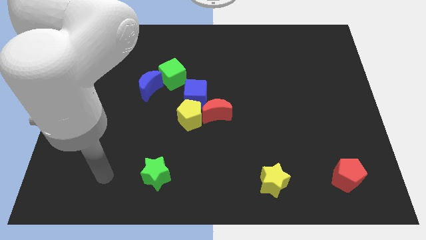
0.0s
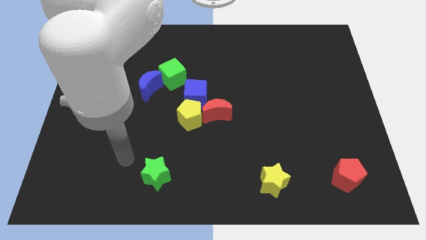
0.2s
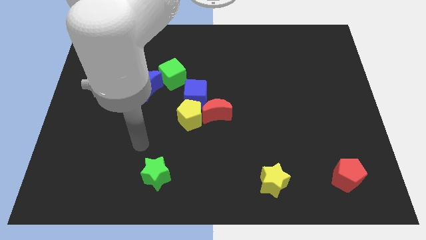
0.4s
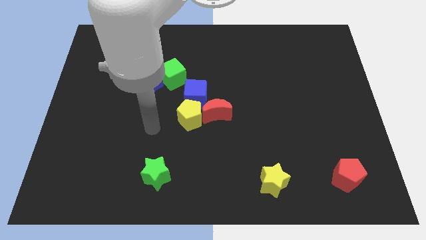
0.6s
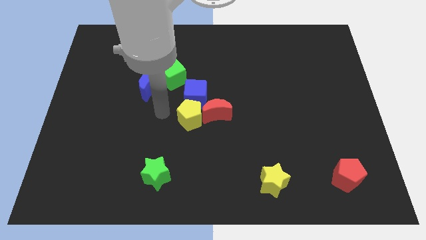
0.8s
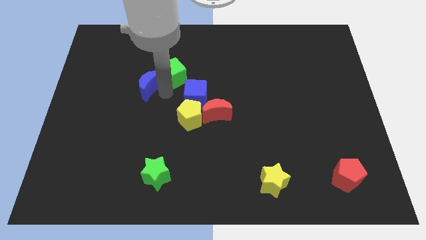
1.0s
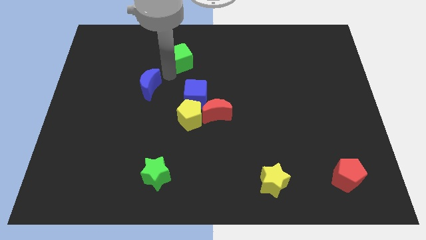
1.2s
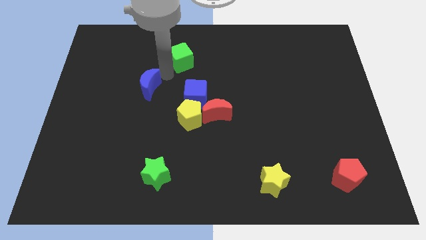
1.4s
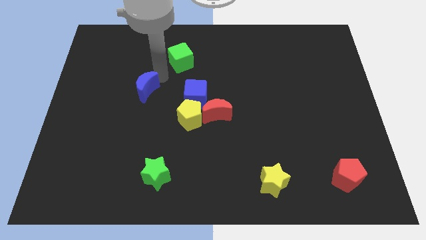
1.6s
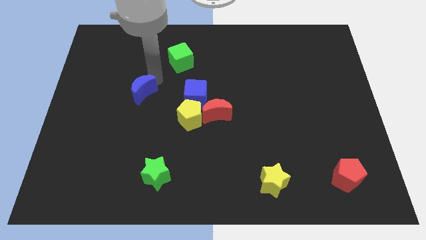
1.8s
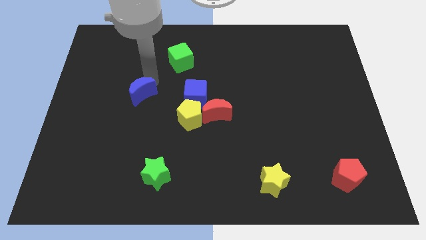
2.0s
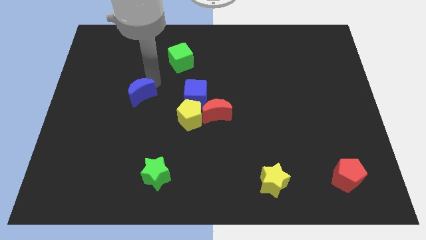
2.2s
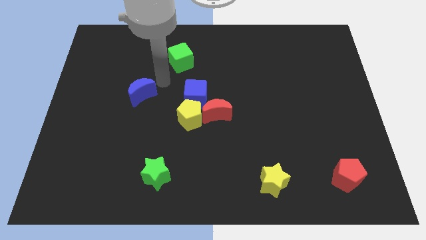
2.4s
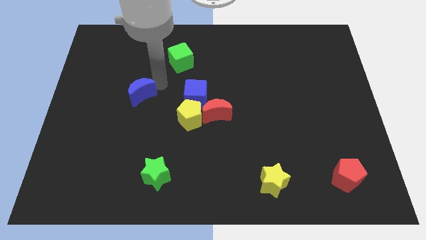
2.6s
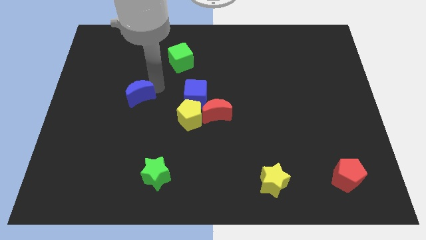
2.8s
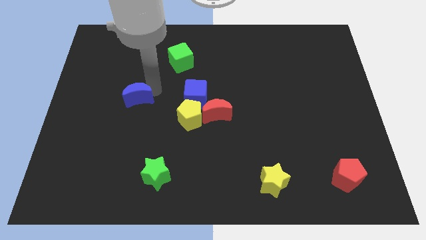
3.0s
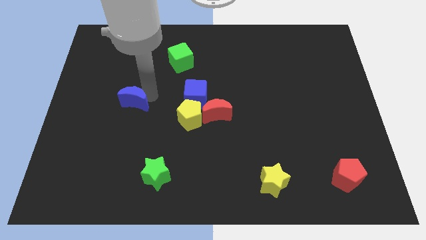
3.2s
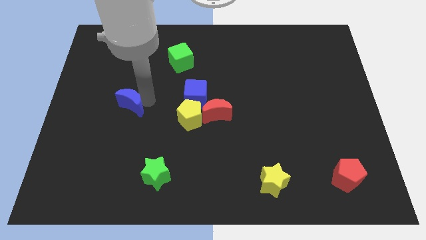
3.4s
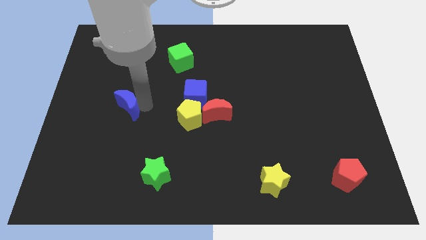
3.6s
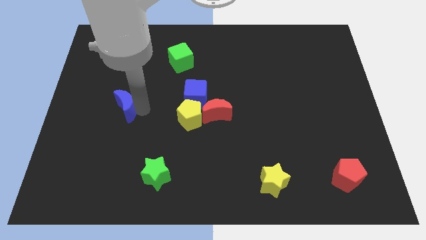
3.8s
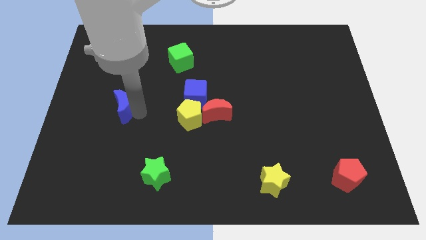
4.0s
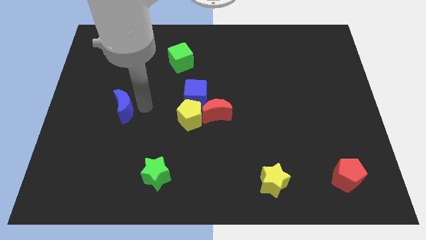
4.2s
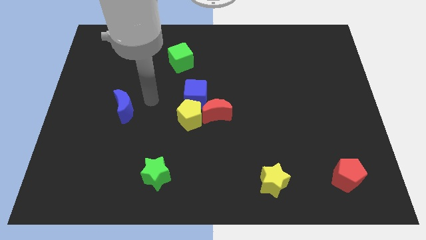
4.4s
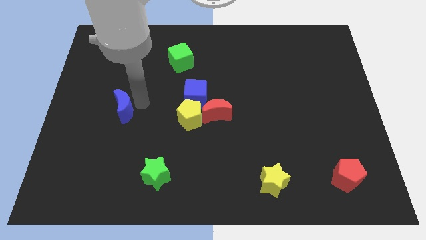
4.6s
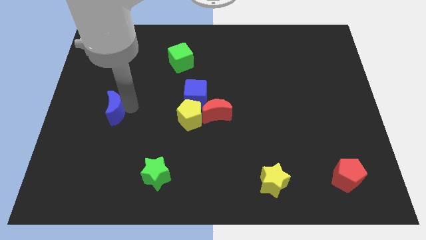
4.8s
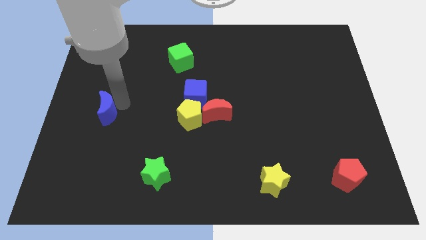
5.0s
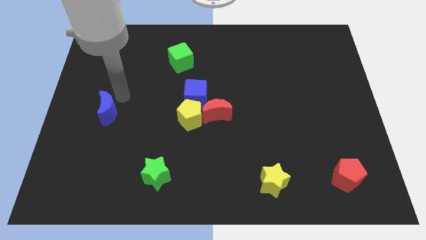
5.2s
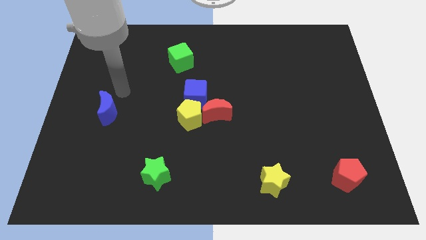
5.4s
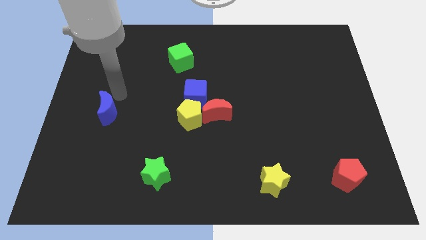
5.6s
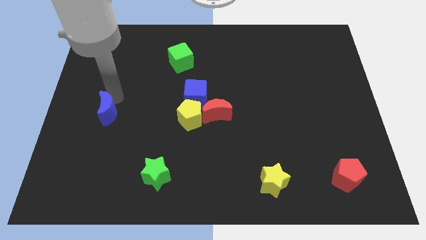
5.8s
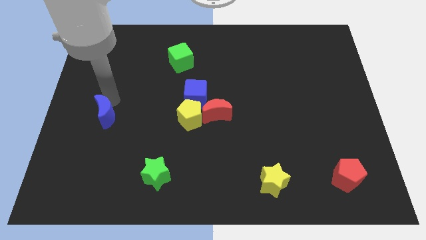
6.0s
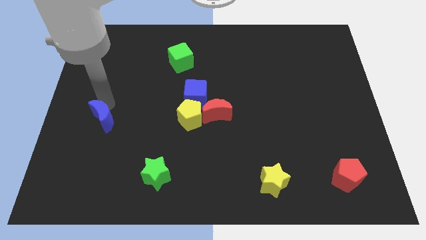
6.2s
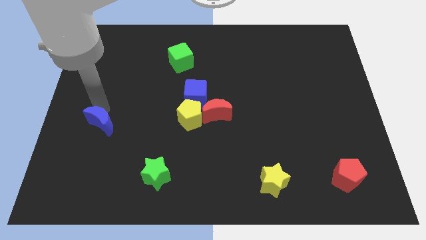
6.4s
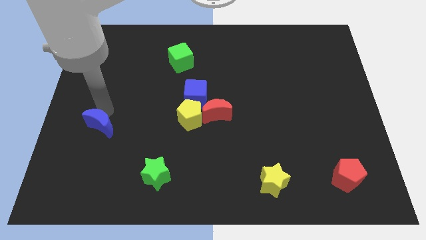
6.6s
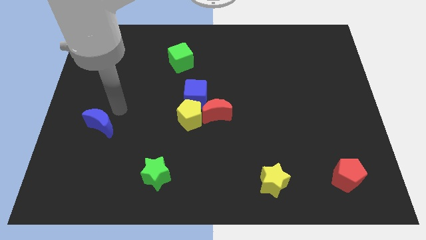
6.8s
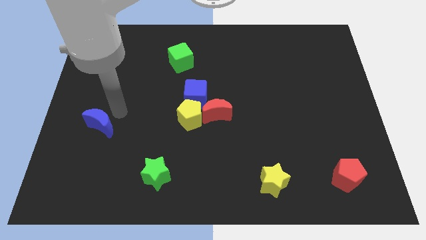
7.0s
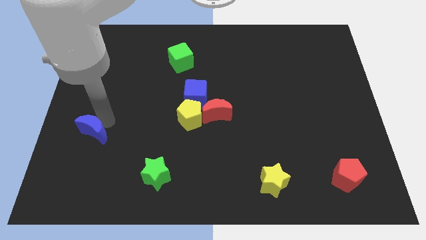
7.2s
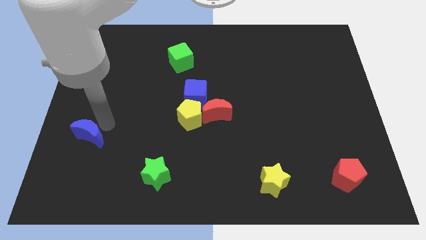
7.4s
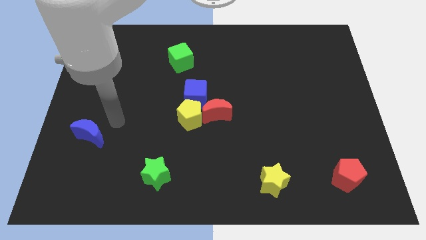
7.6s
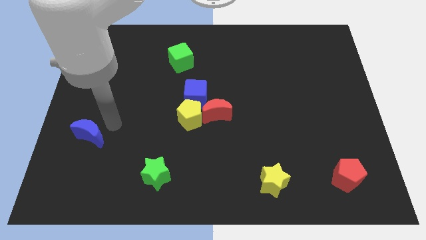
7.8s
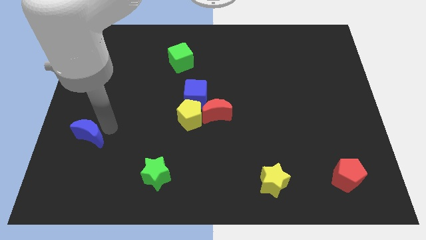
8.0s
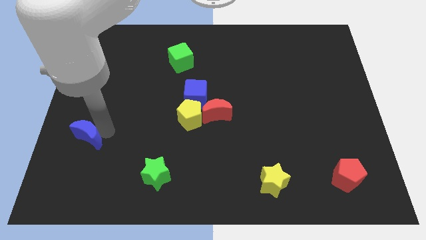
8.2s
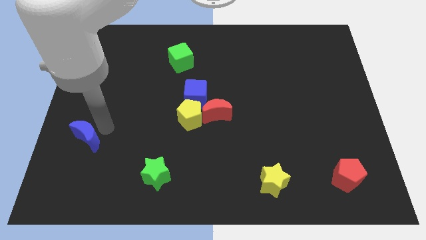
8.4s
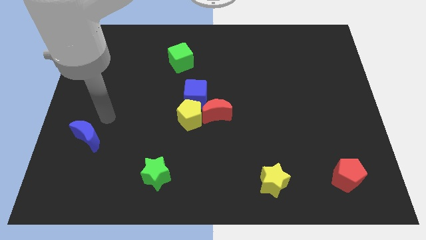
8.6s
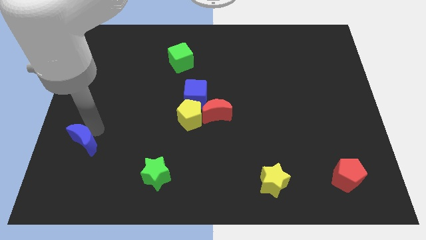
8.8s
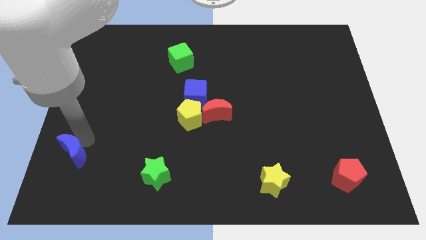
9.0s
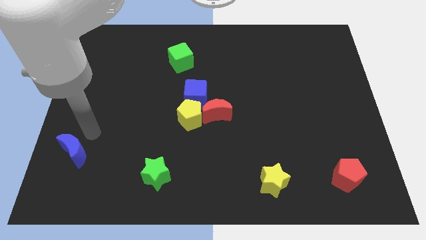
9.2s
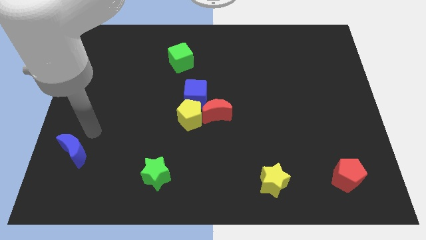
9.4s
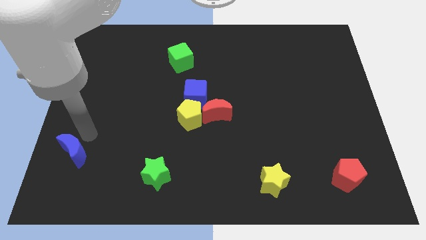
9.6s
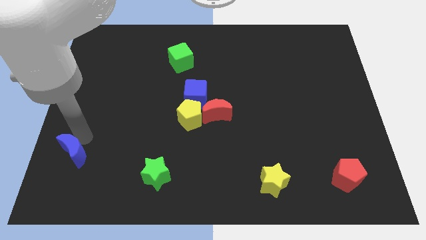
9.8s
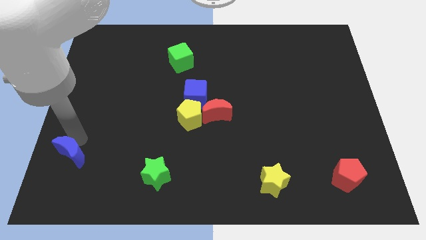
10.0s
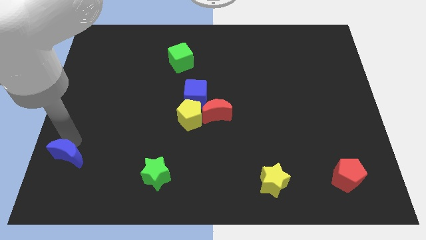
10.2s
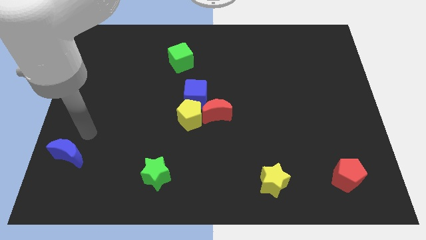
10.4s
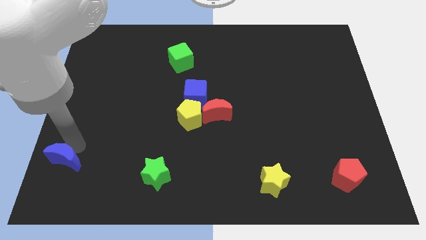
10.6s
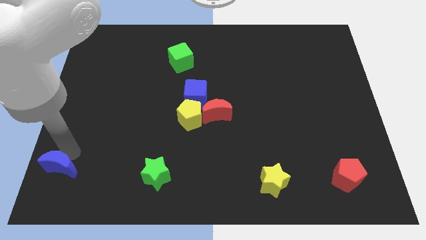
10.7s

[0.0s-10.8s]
move the blue moon to the lower left corner

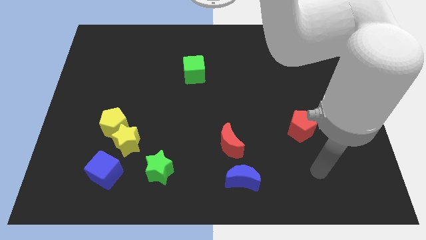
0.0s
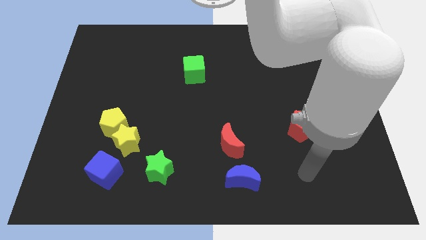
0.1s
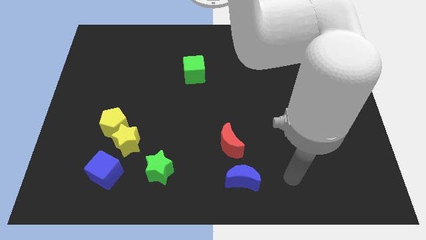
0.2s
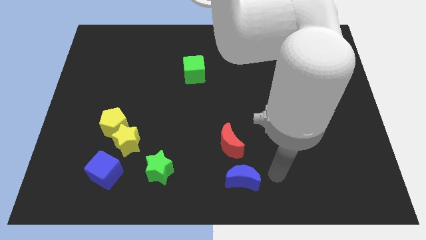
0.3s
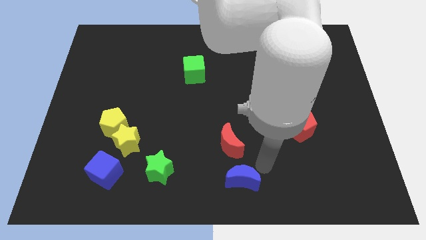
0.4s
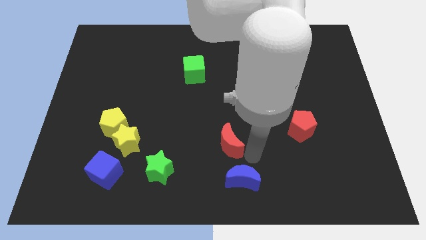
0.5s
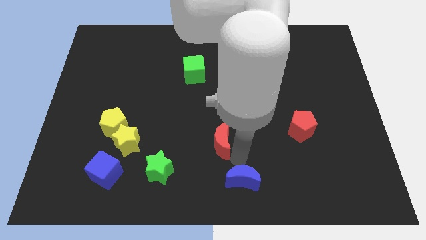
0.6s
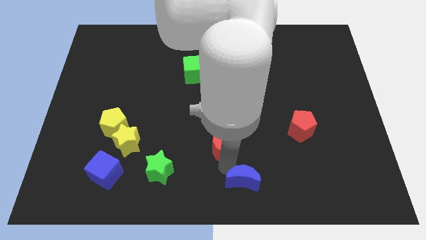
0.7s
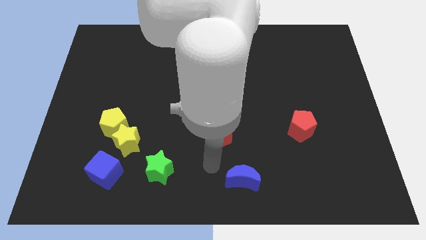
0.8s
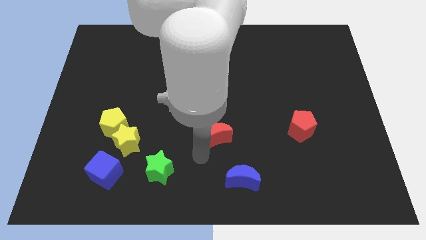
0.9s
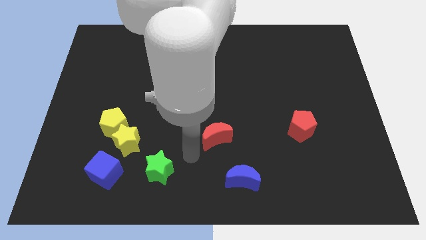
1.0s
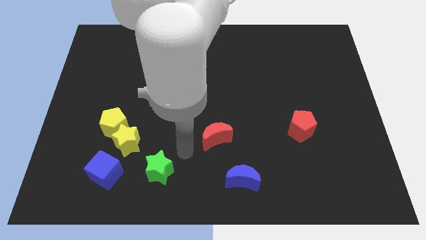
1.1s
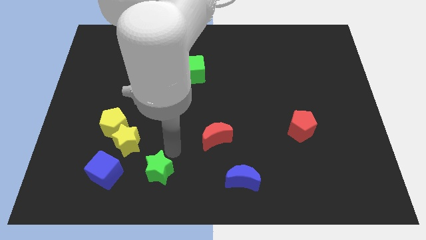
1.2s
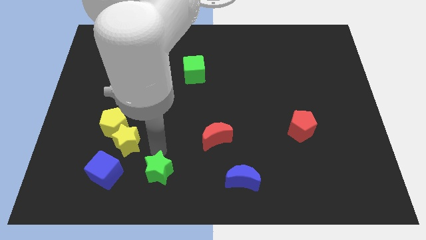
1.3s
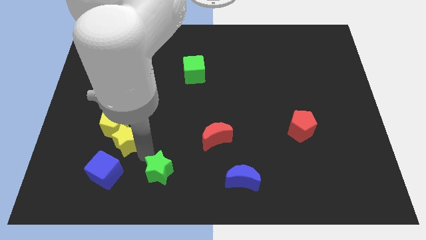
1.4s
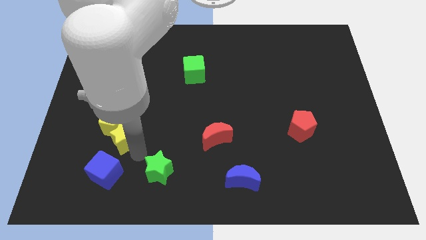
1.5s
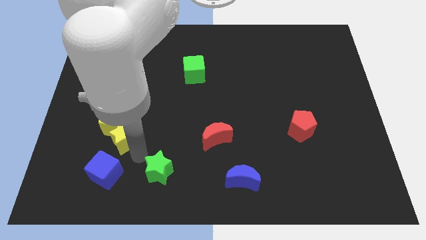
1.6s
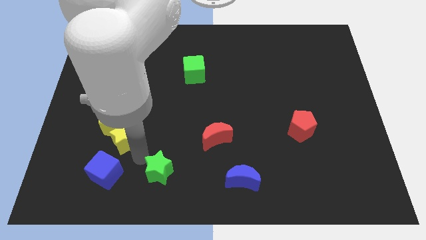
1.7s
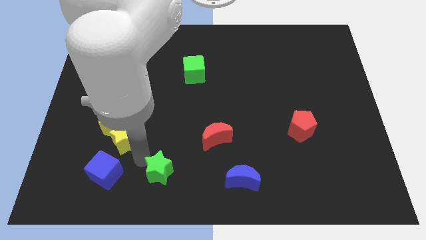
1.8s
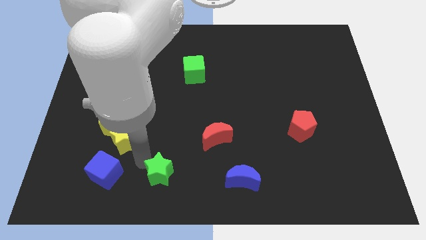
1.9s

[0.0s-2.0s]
put the green star to the bottom side

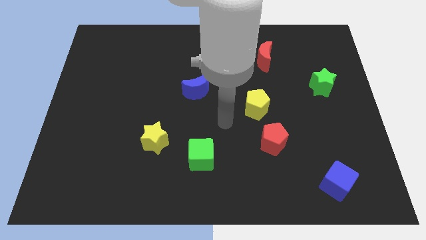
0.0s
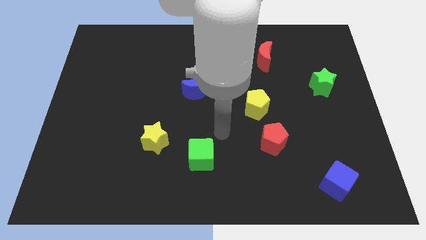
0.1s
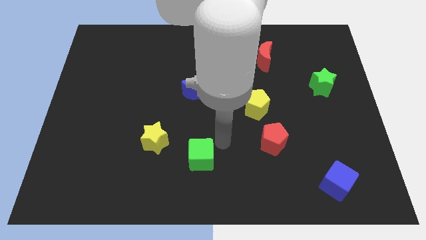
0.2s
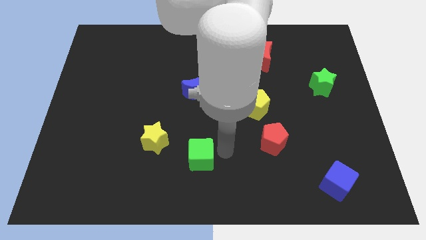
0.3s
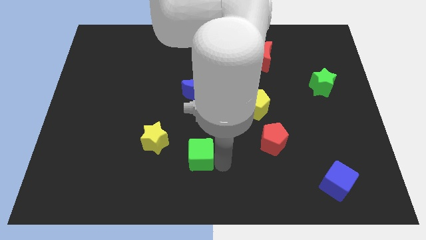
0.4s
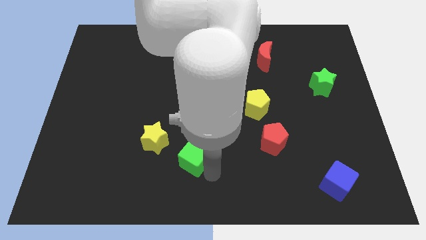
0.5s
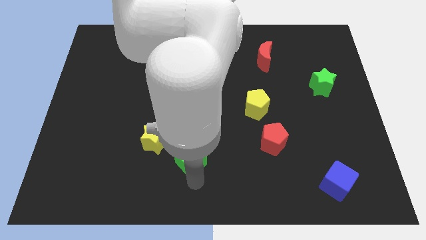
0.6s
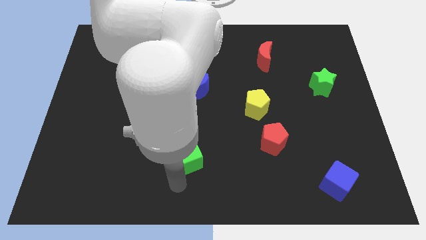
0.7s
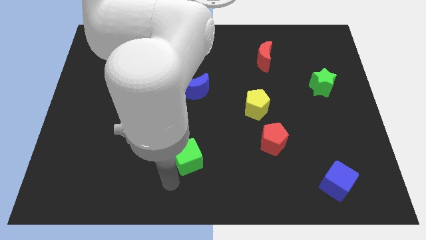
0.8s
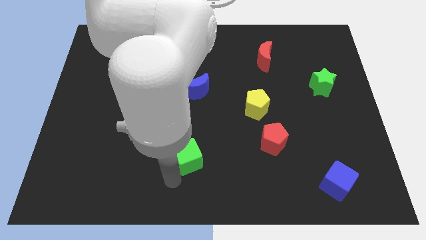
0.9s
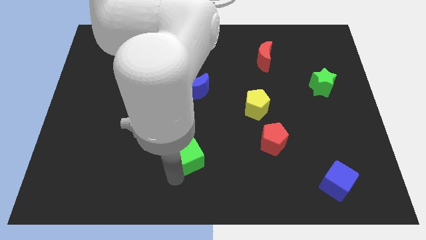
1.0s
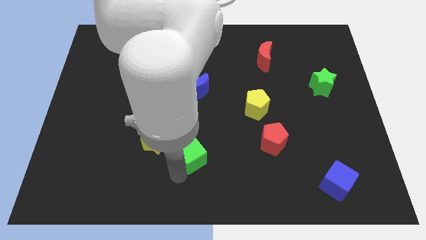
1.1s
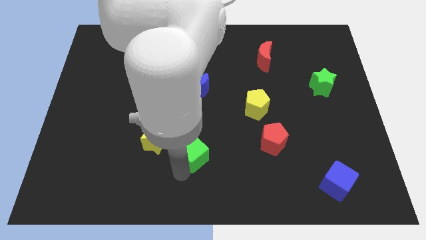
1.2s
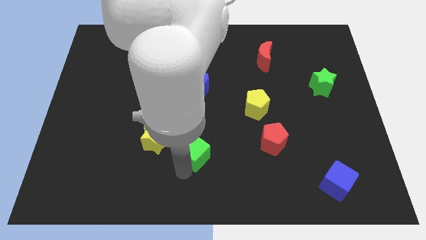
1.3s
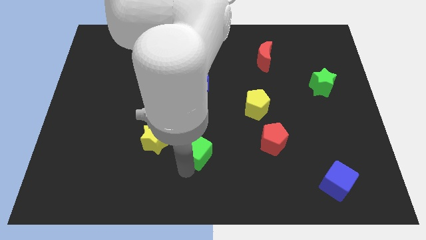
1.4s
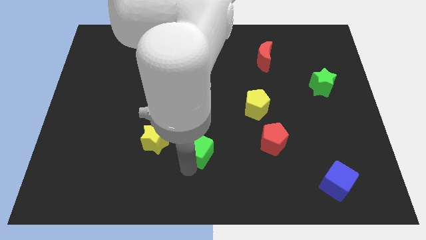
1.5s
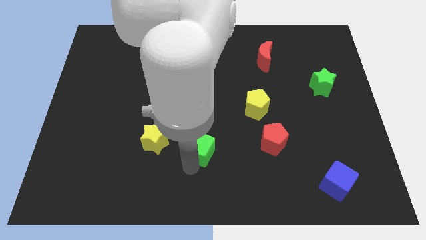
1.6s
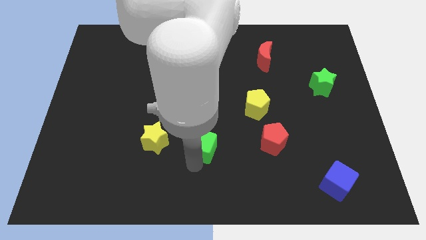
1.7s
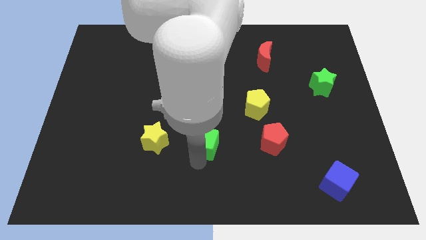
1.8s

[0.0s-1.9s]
put the green cube to the middle
